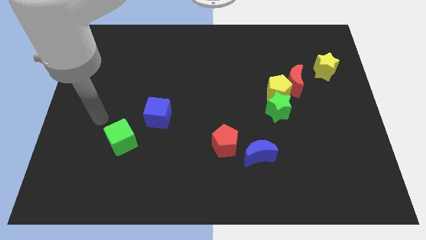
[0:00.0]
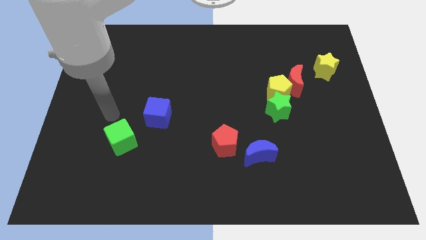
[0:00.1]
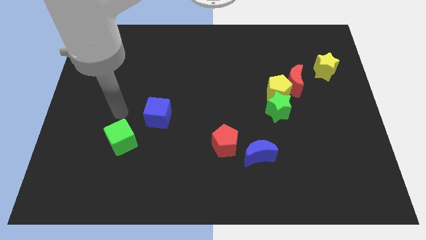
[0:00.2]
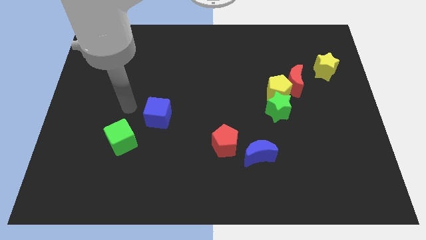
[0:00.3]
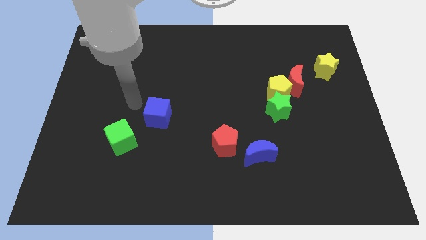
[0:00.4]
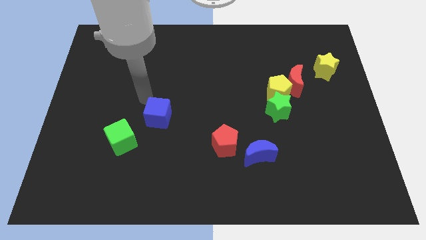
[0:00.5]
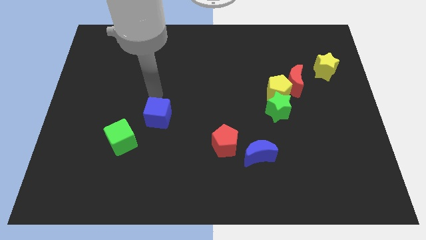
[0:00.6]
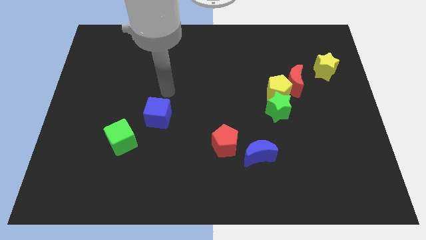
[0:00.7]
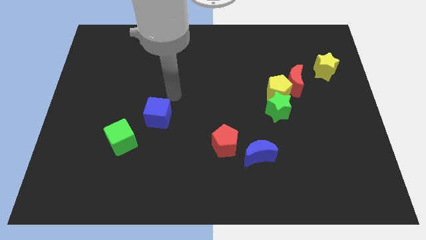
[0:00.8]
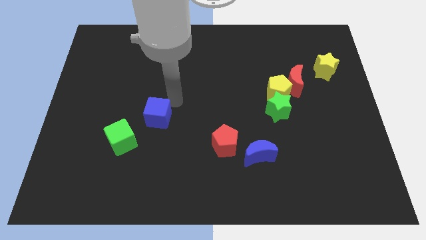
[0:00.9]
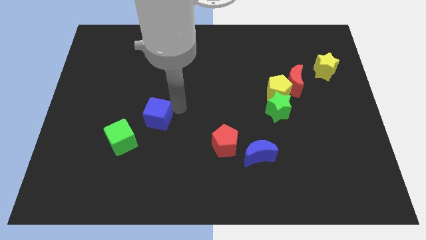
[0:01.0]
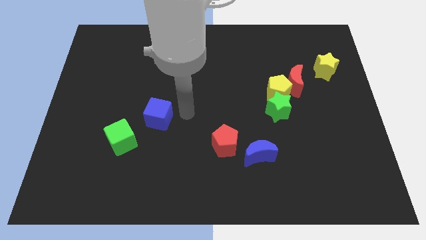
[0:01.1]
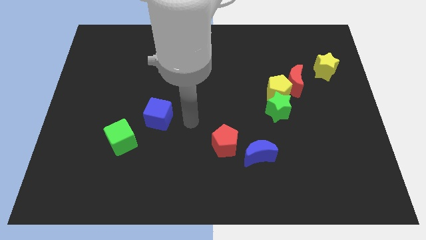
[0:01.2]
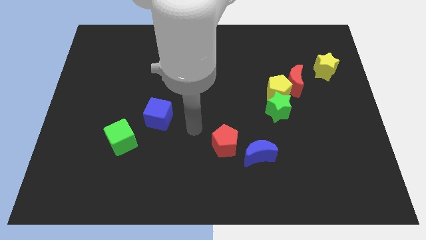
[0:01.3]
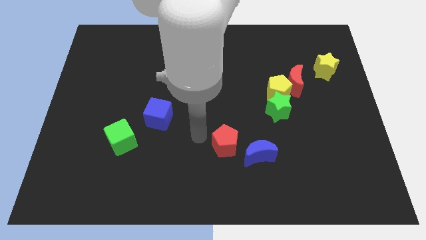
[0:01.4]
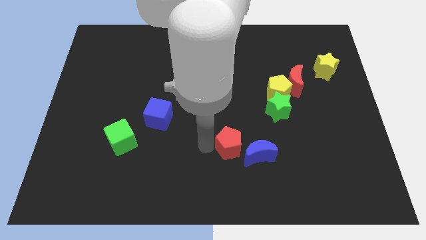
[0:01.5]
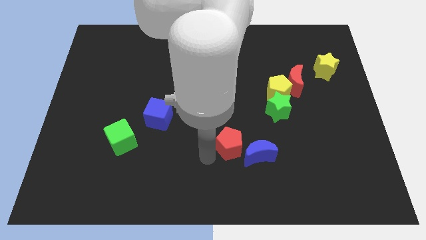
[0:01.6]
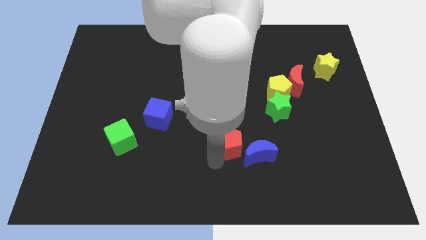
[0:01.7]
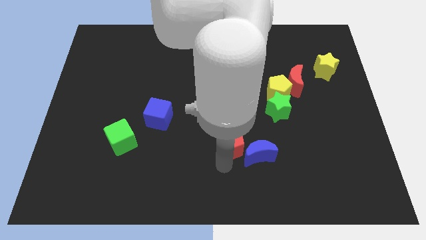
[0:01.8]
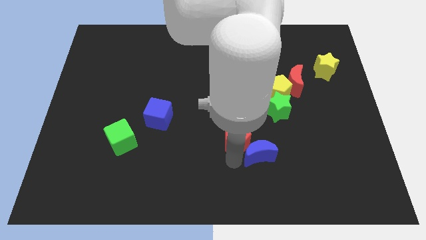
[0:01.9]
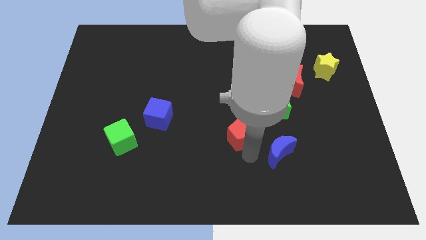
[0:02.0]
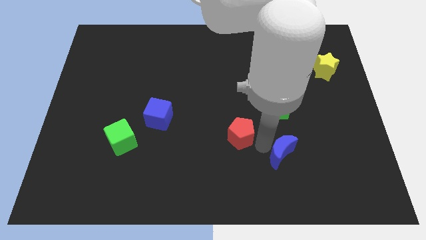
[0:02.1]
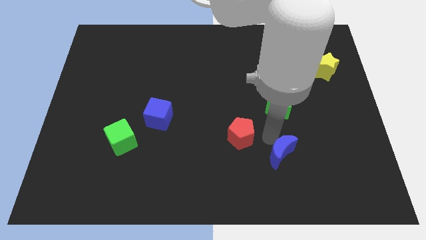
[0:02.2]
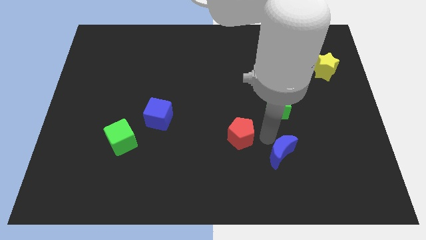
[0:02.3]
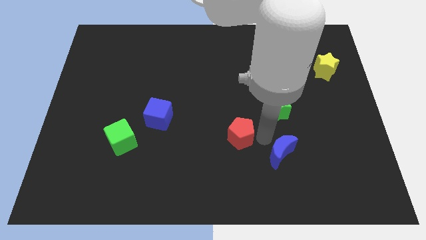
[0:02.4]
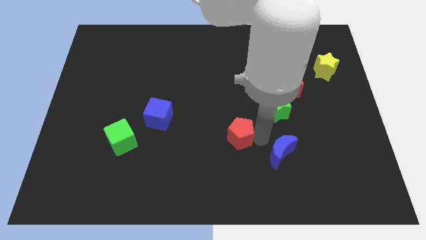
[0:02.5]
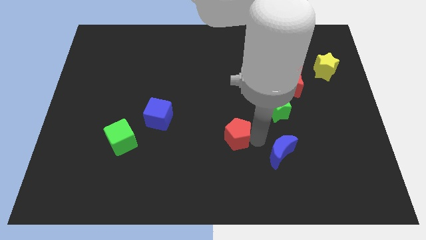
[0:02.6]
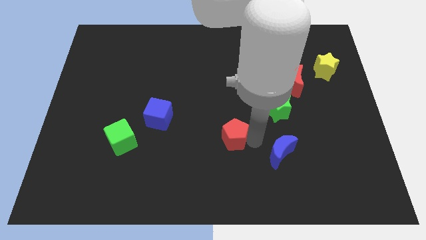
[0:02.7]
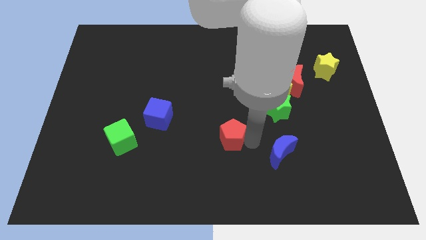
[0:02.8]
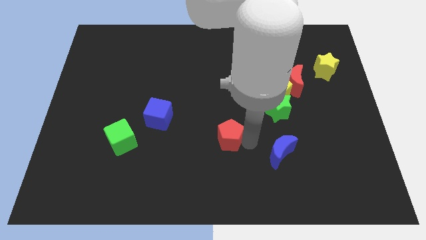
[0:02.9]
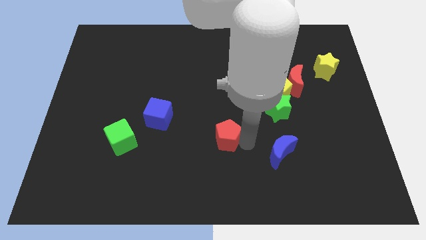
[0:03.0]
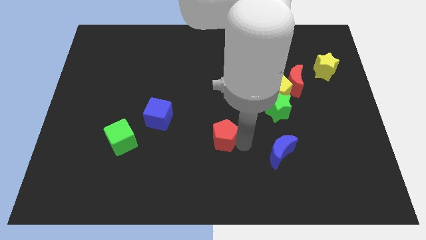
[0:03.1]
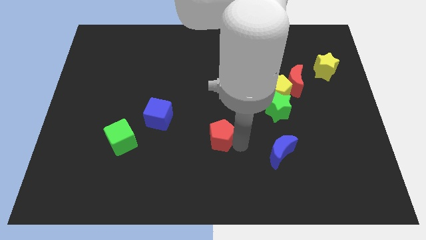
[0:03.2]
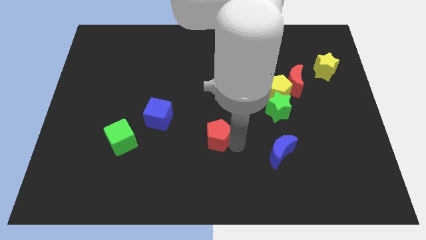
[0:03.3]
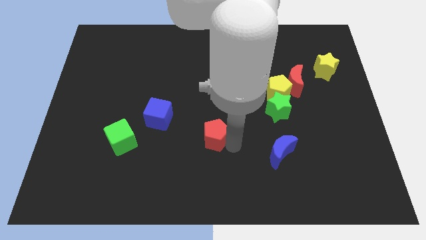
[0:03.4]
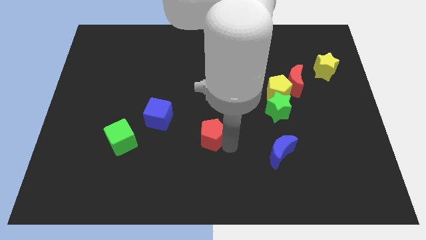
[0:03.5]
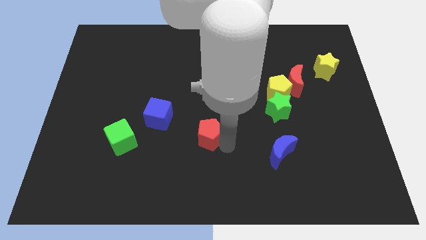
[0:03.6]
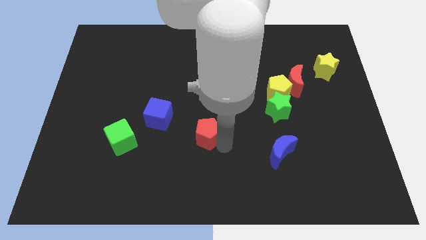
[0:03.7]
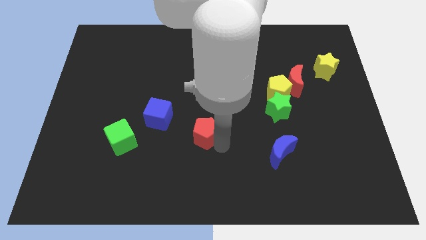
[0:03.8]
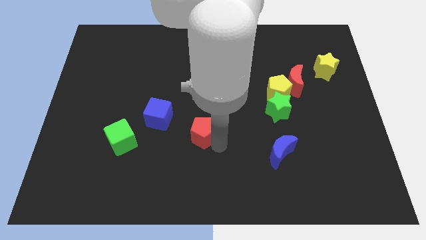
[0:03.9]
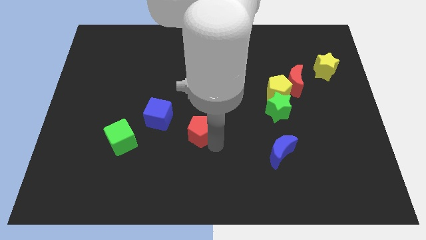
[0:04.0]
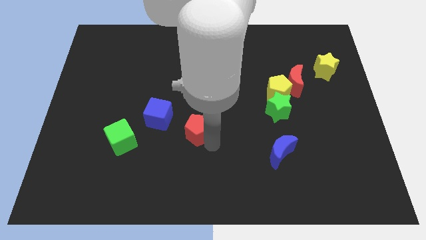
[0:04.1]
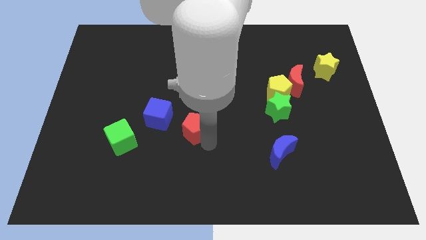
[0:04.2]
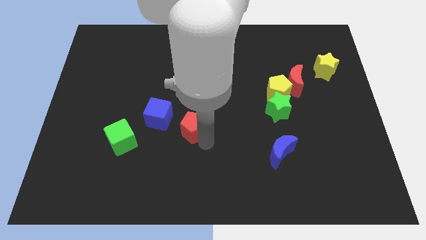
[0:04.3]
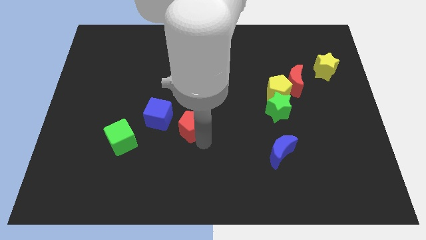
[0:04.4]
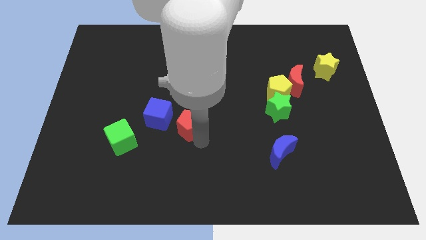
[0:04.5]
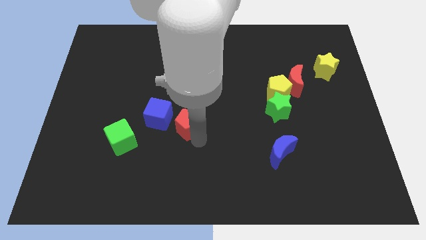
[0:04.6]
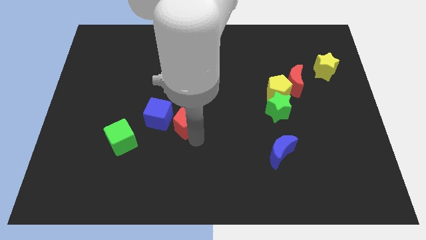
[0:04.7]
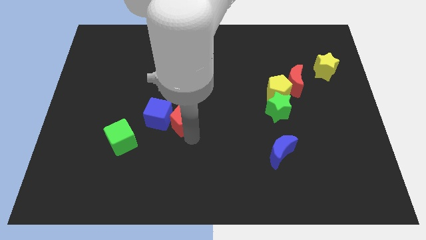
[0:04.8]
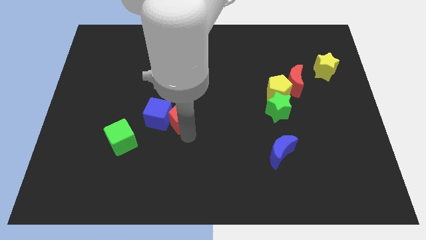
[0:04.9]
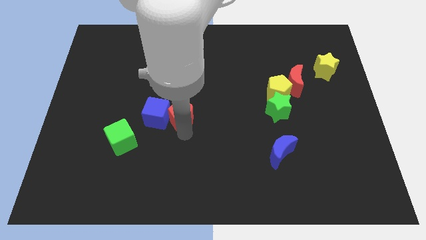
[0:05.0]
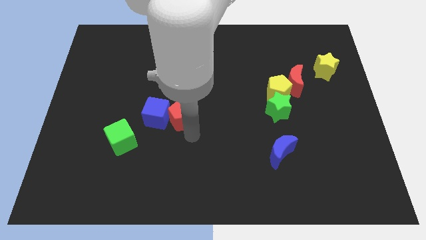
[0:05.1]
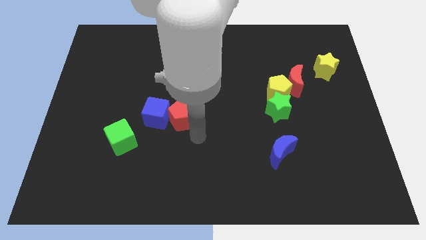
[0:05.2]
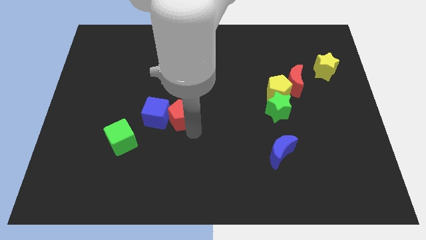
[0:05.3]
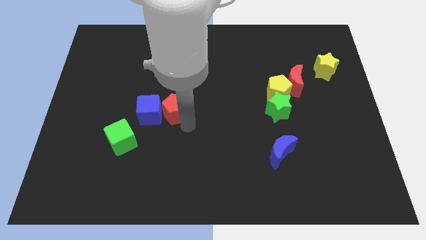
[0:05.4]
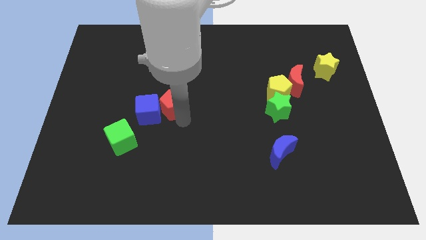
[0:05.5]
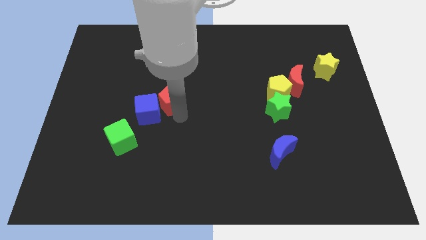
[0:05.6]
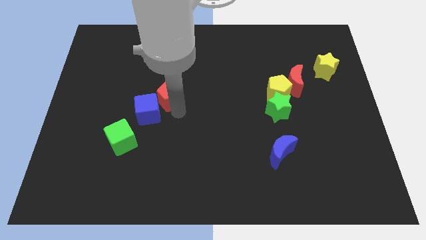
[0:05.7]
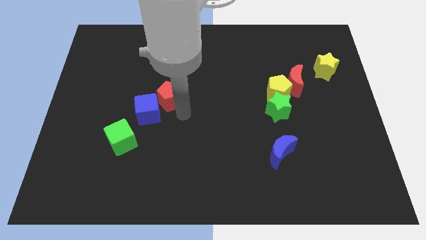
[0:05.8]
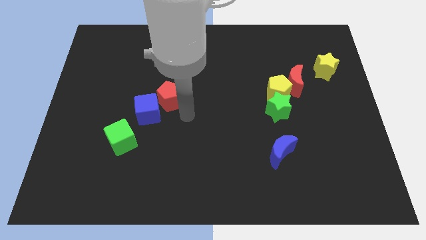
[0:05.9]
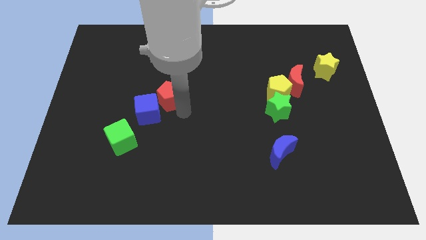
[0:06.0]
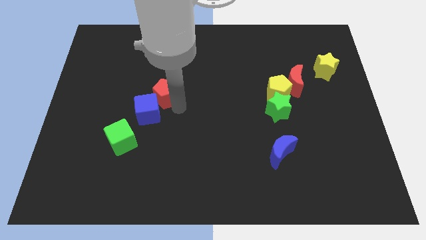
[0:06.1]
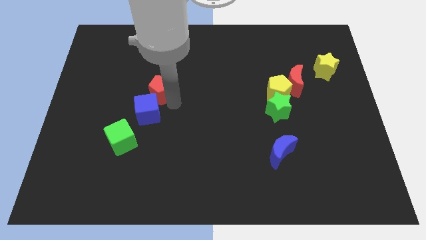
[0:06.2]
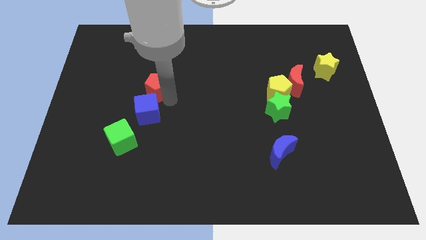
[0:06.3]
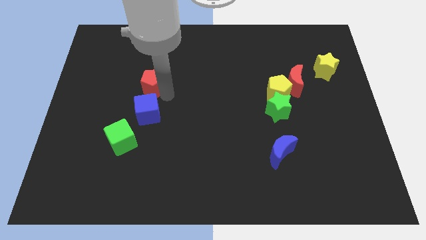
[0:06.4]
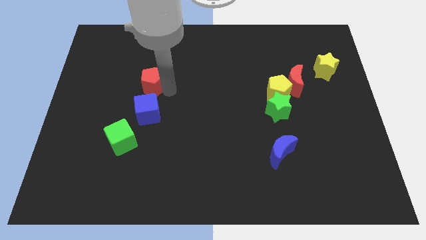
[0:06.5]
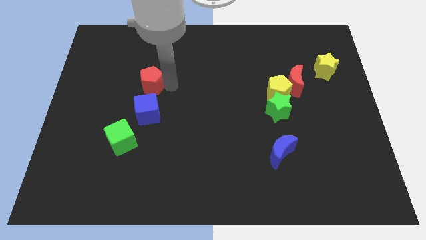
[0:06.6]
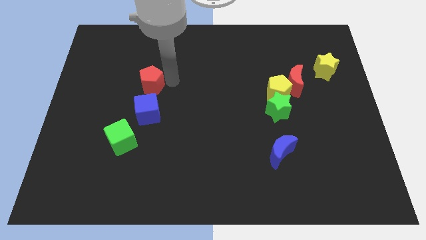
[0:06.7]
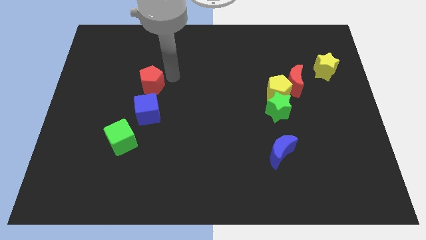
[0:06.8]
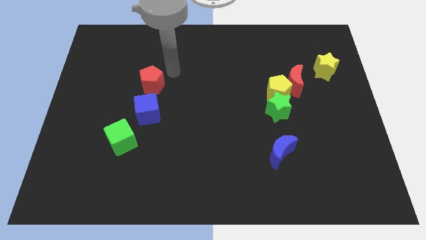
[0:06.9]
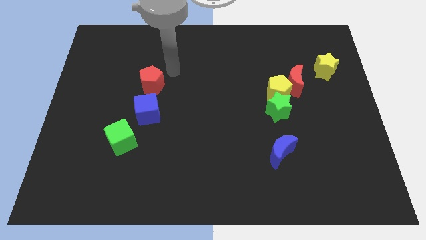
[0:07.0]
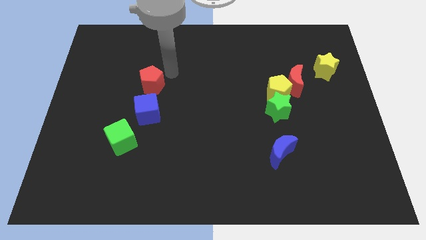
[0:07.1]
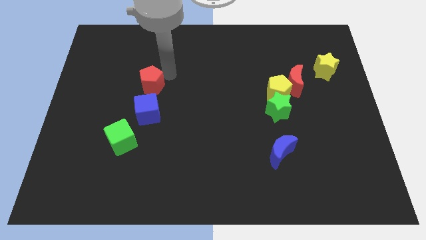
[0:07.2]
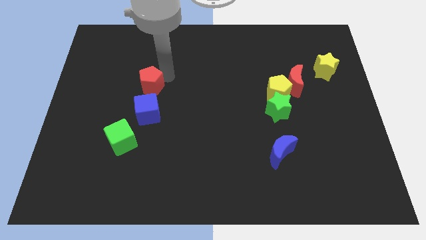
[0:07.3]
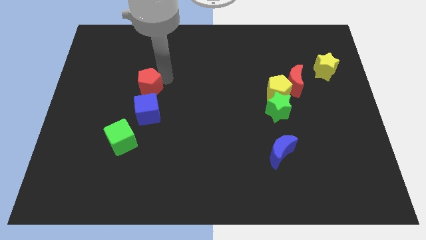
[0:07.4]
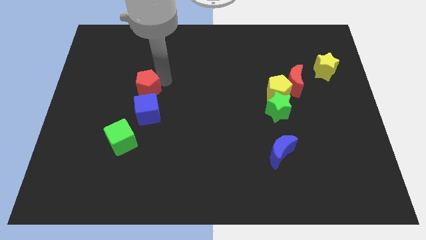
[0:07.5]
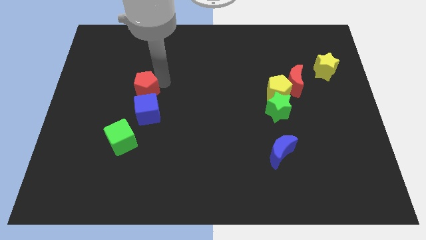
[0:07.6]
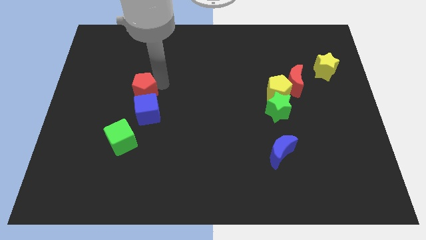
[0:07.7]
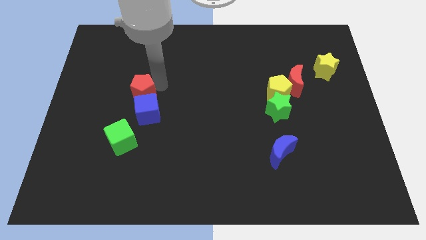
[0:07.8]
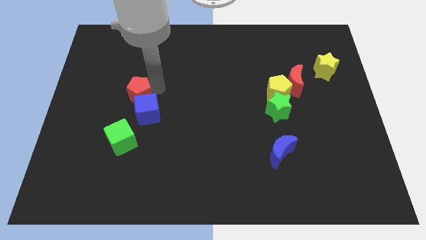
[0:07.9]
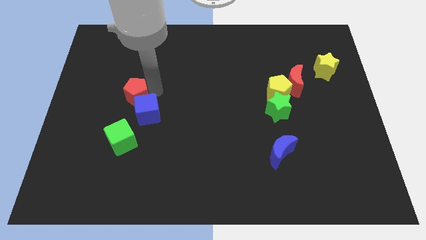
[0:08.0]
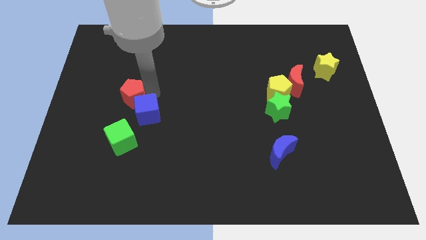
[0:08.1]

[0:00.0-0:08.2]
push the red pentagon left of the blue cube
